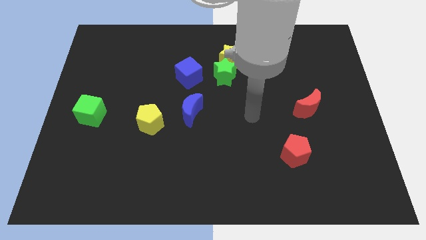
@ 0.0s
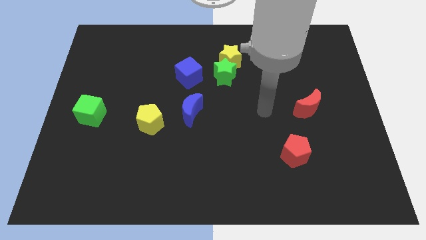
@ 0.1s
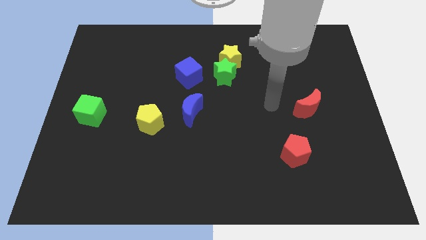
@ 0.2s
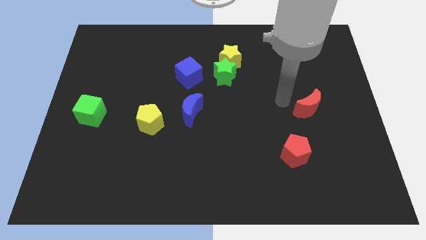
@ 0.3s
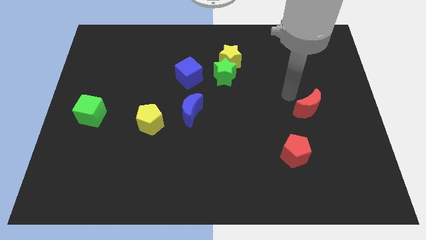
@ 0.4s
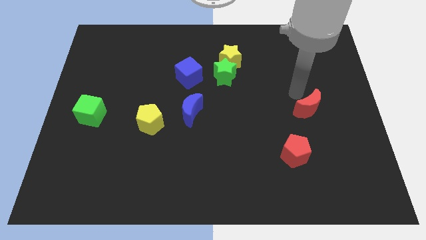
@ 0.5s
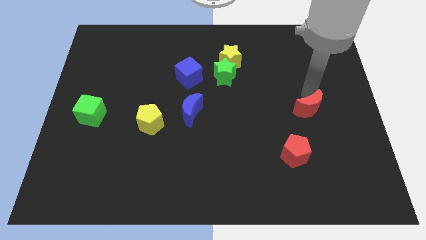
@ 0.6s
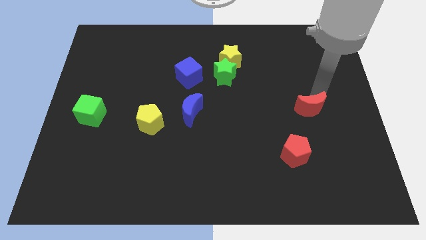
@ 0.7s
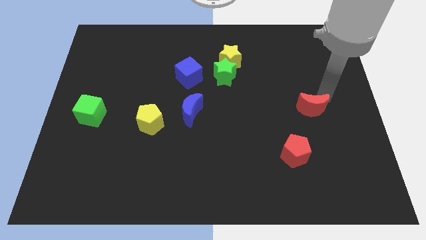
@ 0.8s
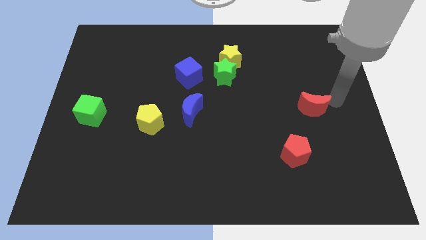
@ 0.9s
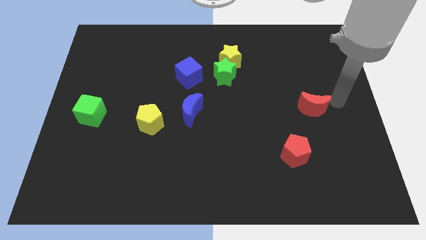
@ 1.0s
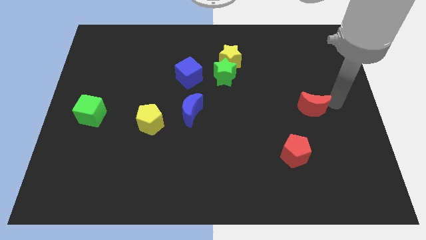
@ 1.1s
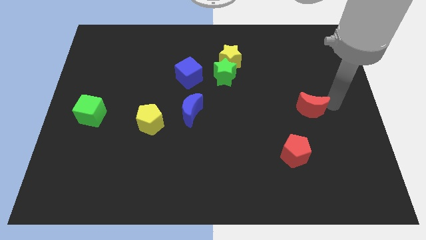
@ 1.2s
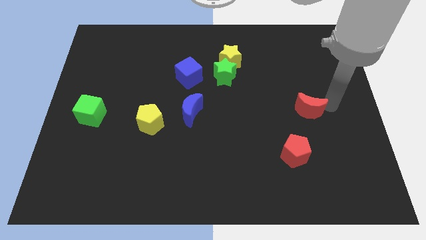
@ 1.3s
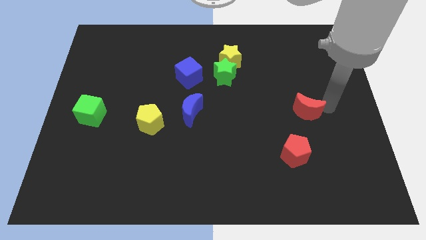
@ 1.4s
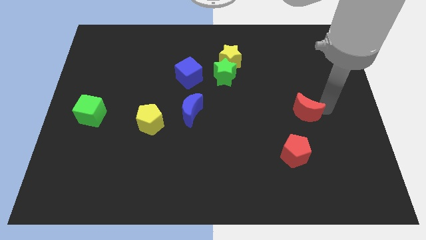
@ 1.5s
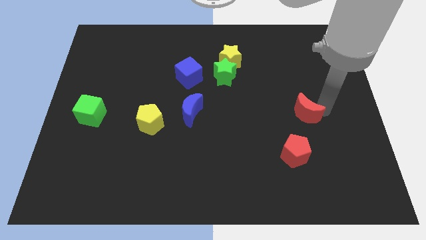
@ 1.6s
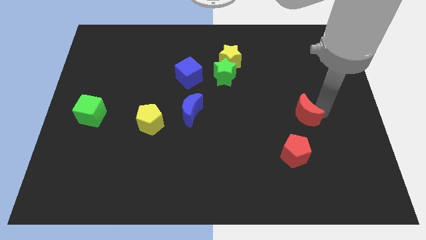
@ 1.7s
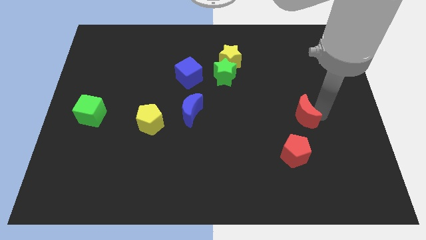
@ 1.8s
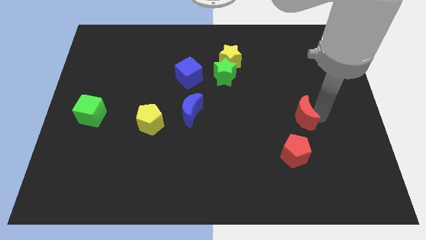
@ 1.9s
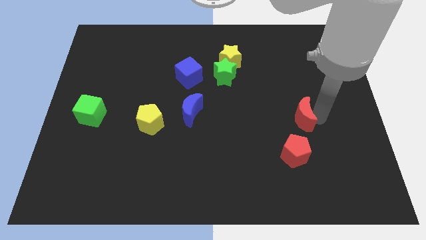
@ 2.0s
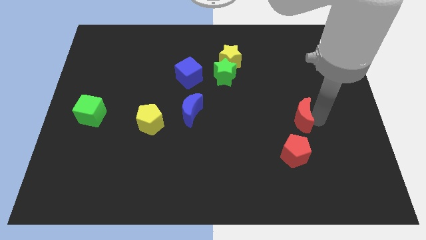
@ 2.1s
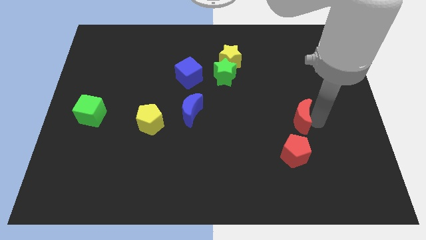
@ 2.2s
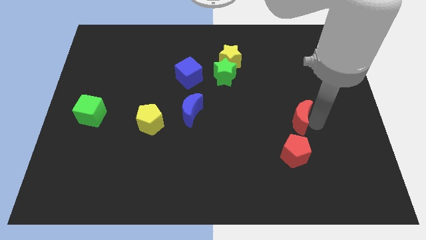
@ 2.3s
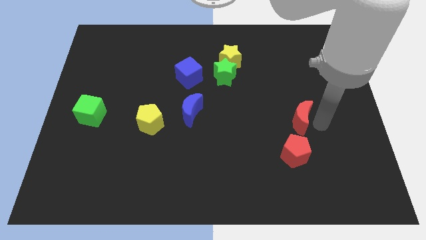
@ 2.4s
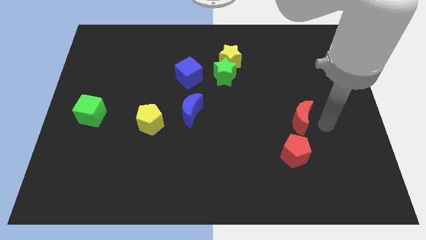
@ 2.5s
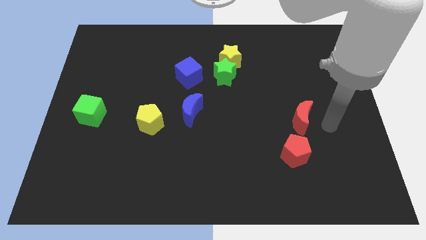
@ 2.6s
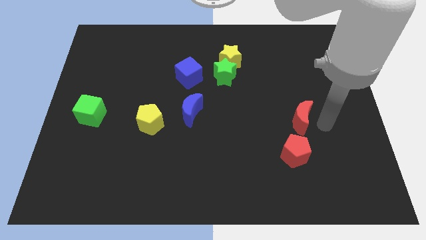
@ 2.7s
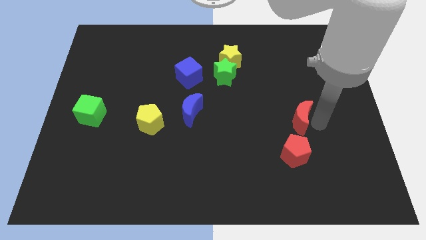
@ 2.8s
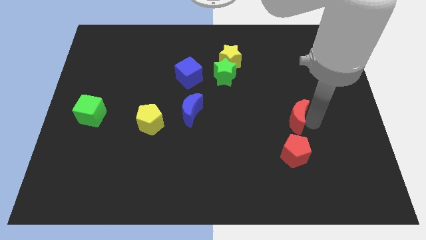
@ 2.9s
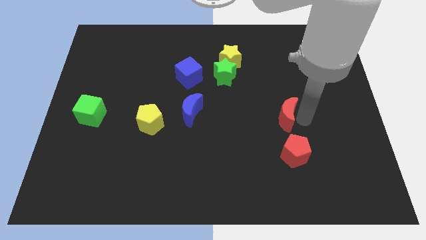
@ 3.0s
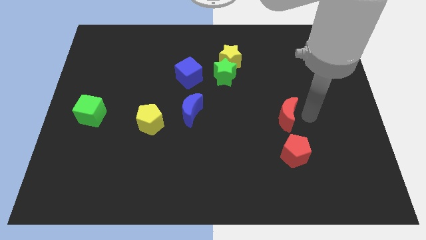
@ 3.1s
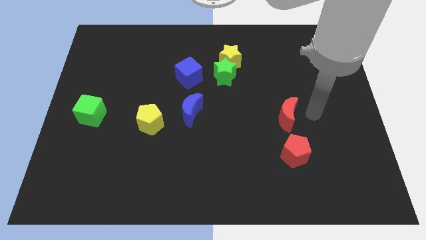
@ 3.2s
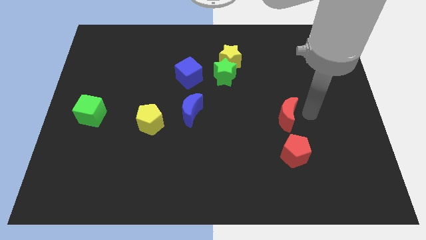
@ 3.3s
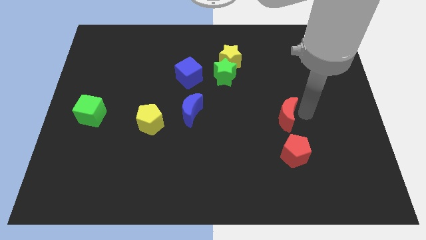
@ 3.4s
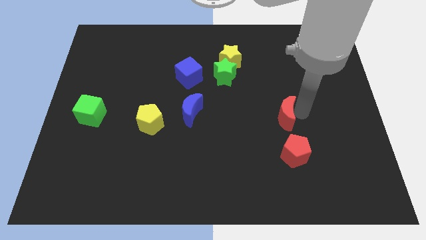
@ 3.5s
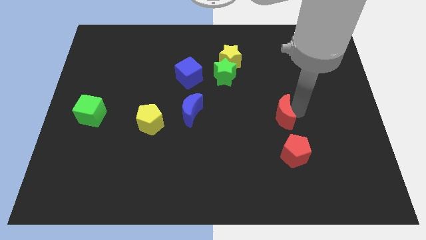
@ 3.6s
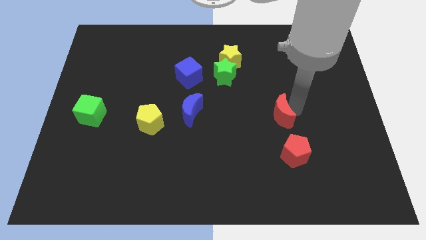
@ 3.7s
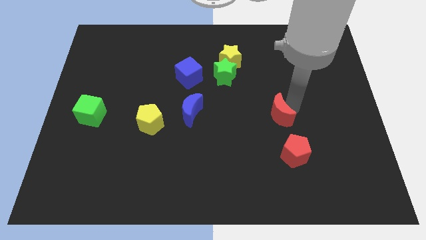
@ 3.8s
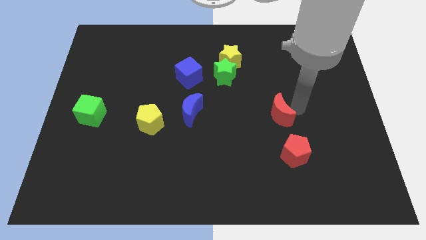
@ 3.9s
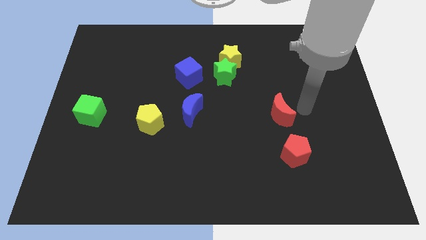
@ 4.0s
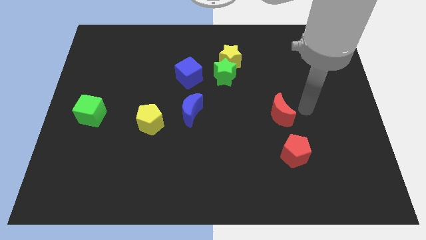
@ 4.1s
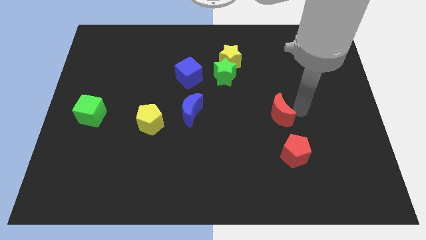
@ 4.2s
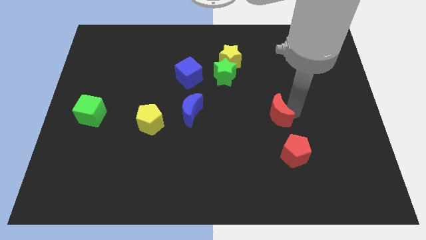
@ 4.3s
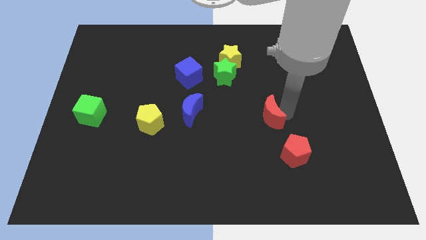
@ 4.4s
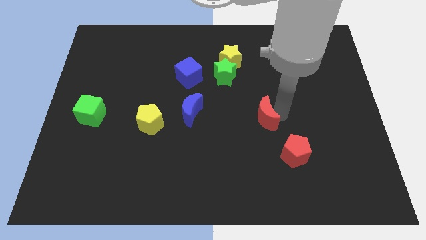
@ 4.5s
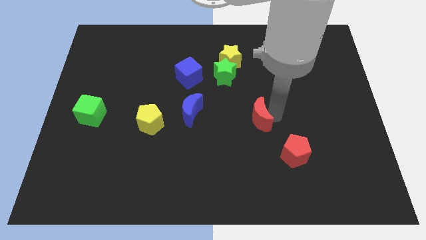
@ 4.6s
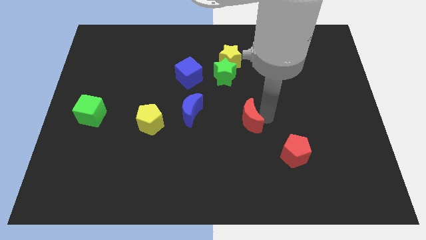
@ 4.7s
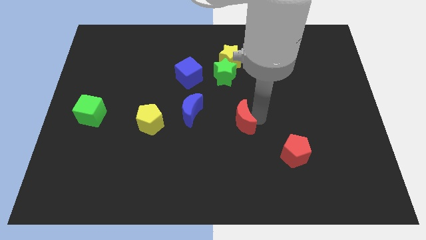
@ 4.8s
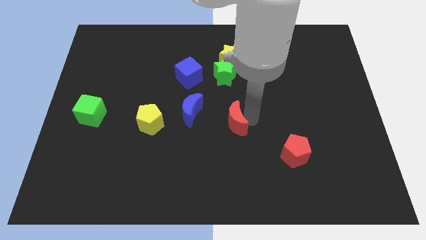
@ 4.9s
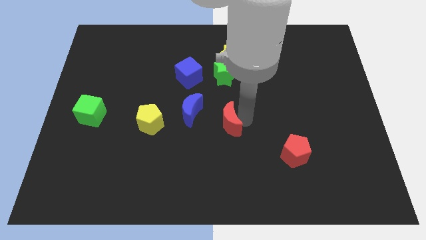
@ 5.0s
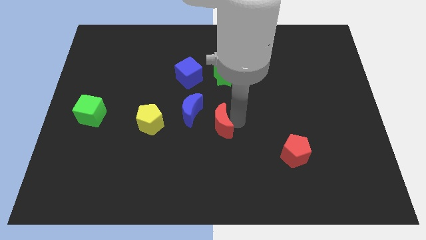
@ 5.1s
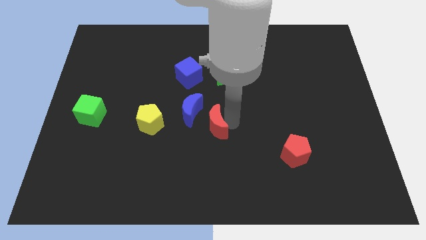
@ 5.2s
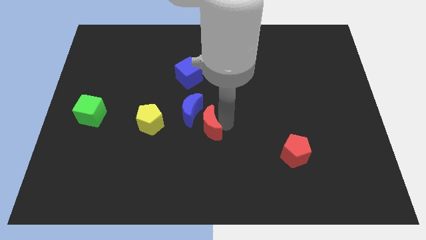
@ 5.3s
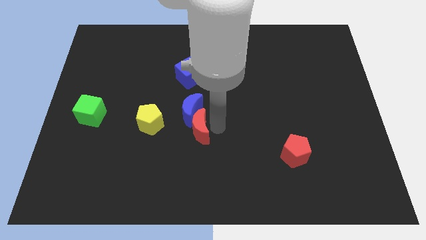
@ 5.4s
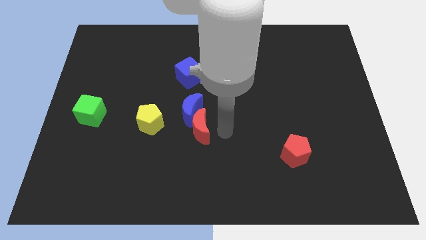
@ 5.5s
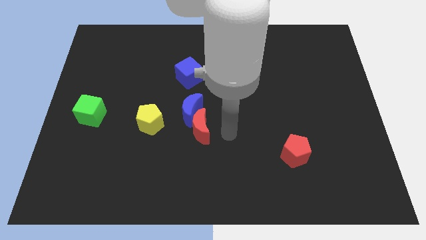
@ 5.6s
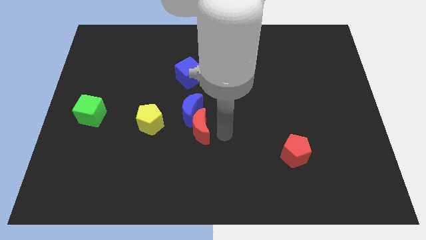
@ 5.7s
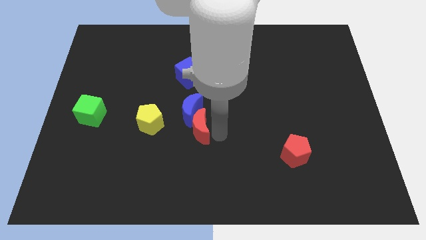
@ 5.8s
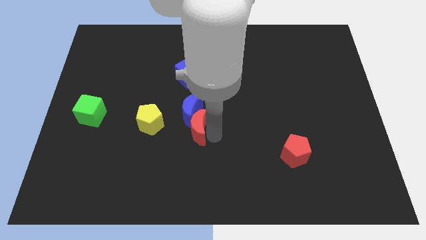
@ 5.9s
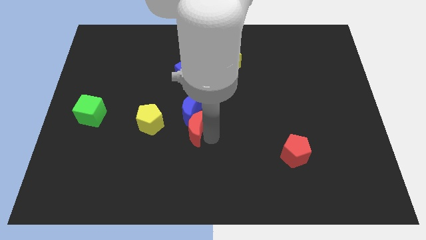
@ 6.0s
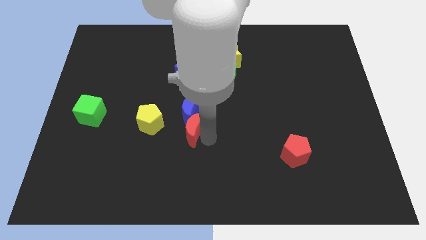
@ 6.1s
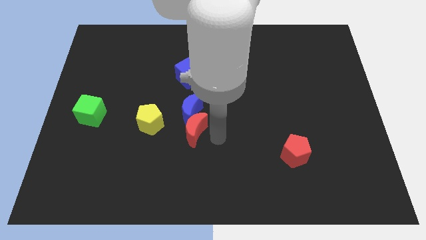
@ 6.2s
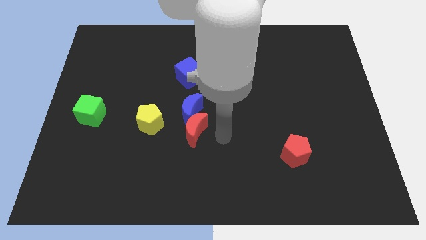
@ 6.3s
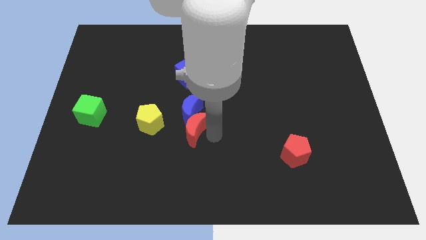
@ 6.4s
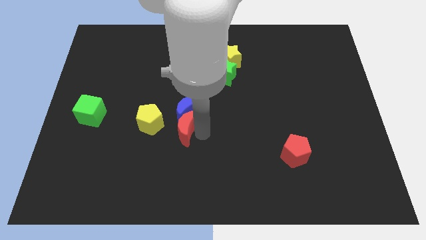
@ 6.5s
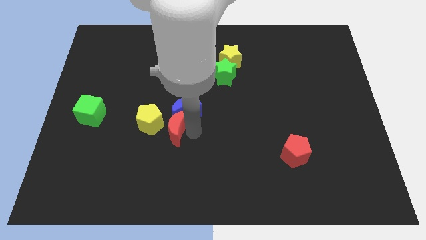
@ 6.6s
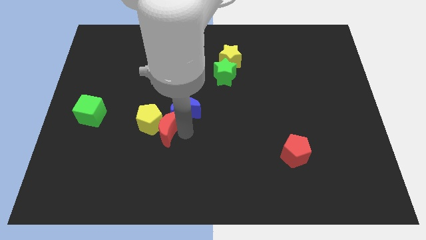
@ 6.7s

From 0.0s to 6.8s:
put the red moon close to the yellow pentagon

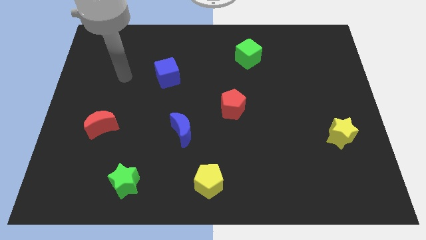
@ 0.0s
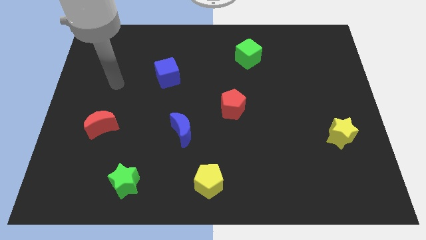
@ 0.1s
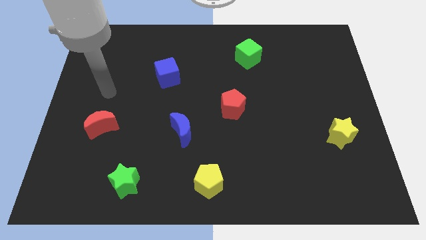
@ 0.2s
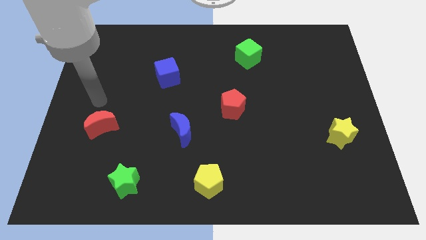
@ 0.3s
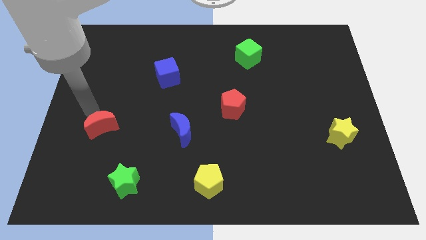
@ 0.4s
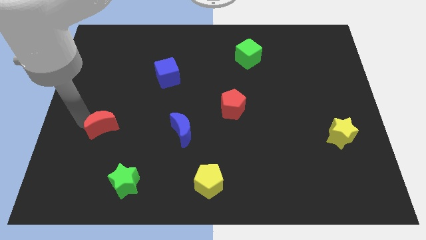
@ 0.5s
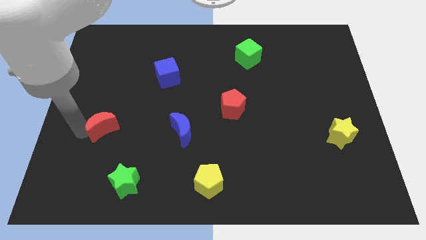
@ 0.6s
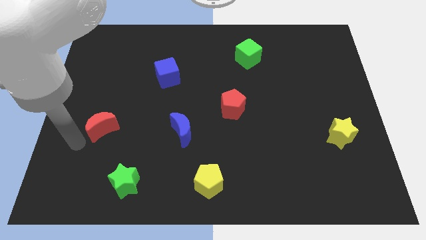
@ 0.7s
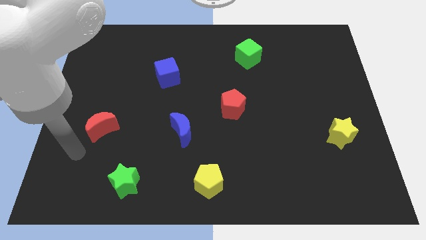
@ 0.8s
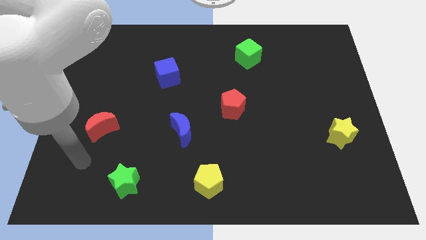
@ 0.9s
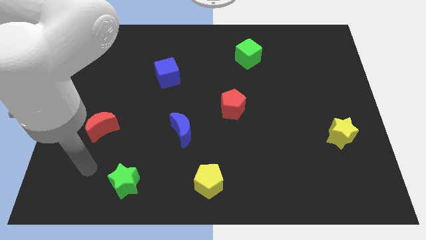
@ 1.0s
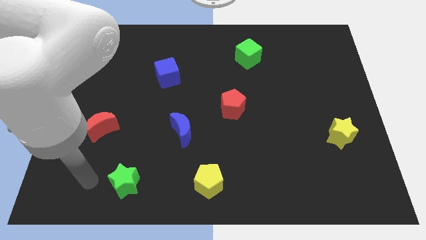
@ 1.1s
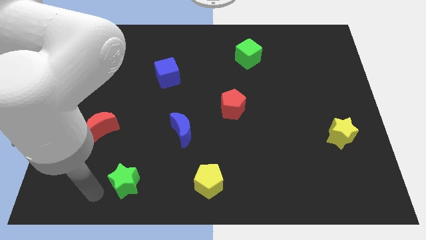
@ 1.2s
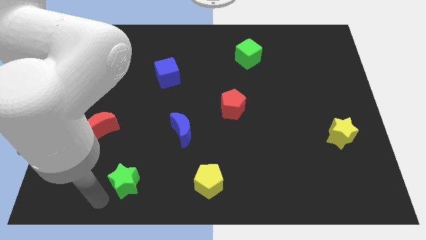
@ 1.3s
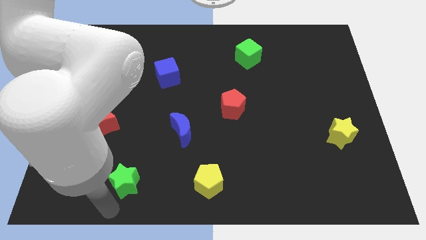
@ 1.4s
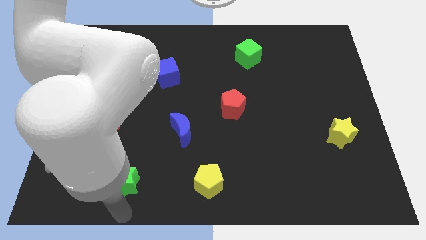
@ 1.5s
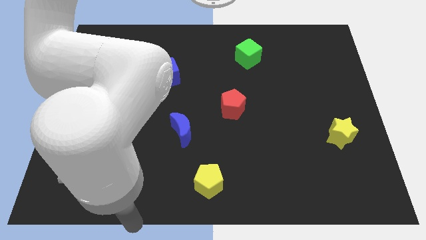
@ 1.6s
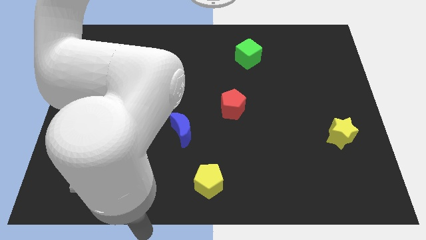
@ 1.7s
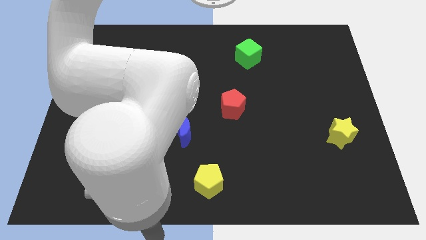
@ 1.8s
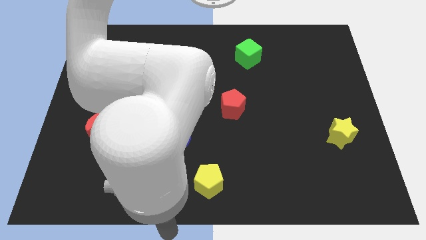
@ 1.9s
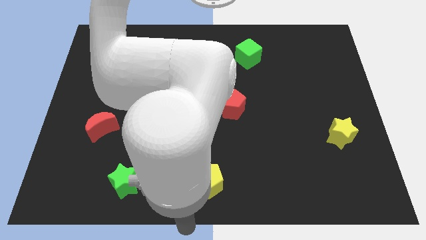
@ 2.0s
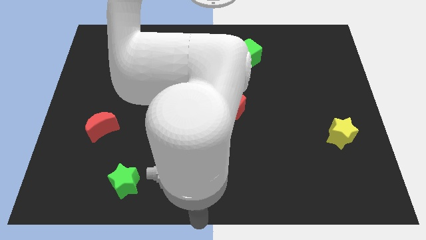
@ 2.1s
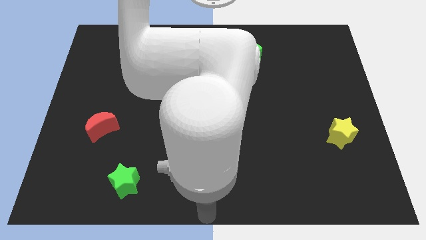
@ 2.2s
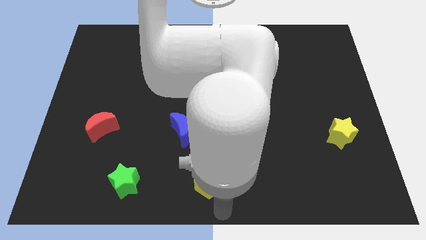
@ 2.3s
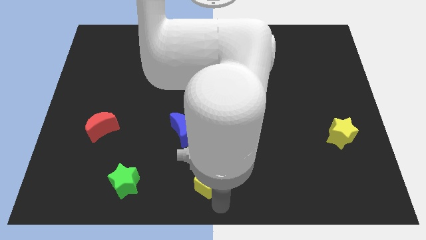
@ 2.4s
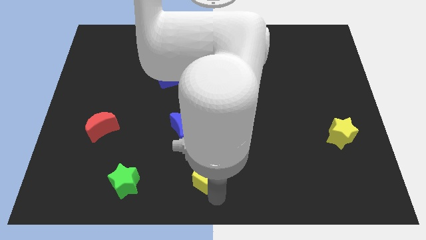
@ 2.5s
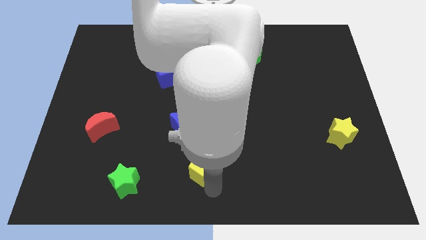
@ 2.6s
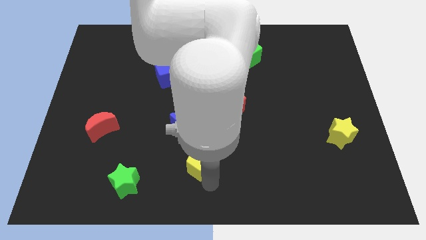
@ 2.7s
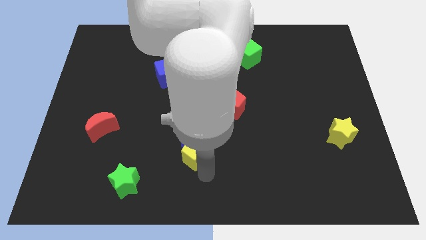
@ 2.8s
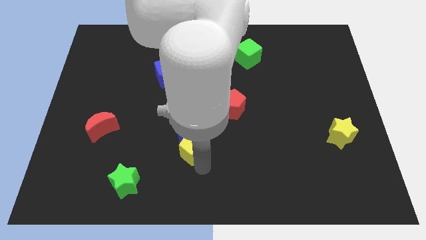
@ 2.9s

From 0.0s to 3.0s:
put the yellow pentagon close to the blue moon
